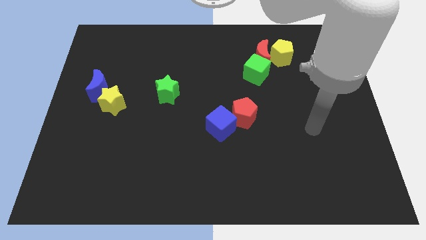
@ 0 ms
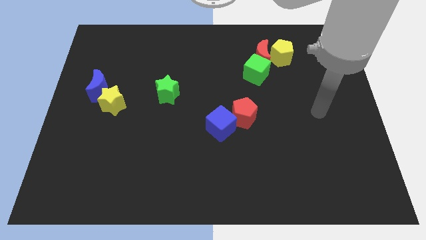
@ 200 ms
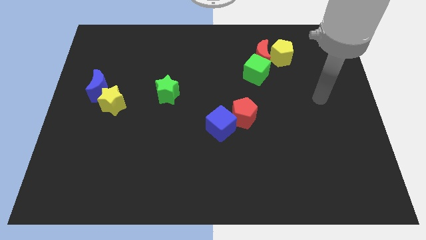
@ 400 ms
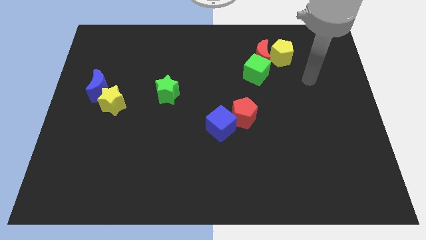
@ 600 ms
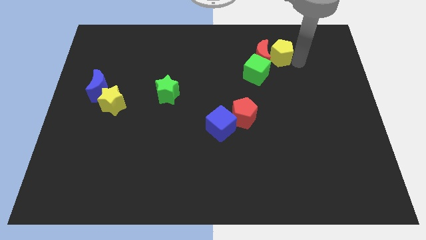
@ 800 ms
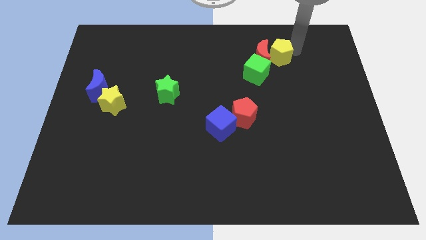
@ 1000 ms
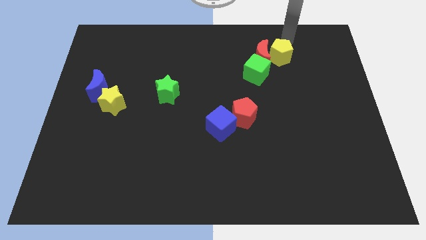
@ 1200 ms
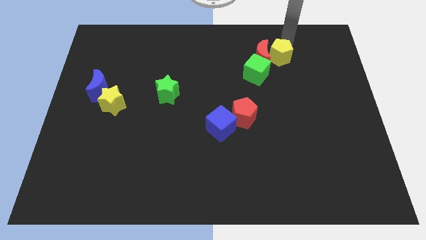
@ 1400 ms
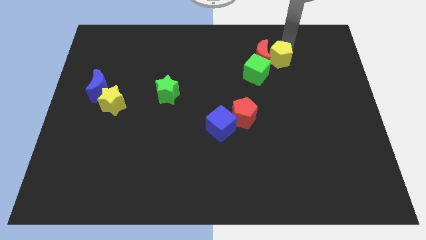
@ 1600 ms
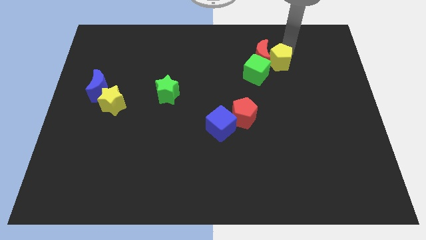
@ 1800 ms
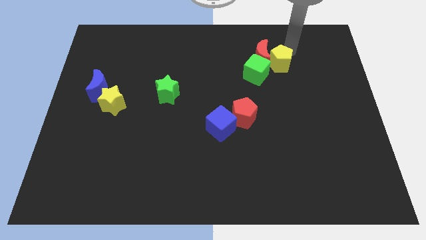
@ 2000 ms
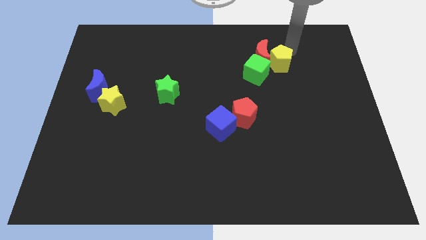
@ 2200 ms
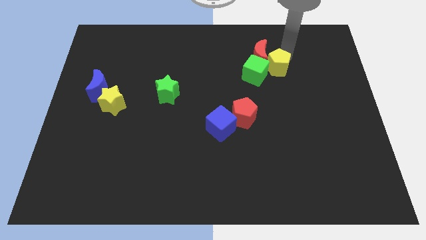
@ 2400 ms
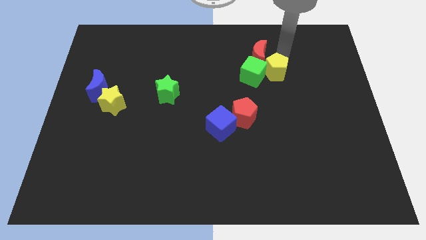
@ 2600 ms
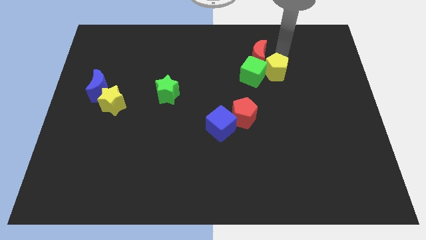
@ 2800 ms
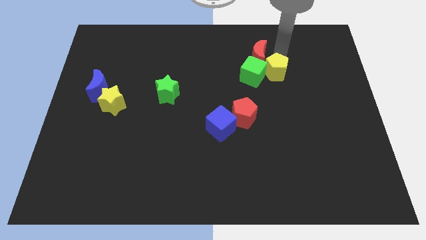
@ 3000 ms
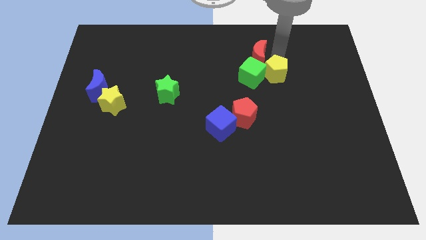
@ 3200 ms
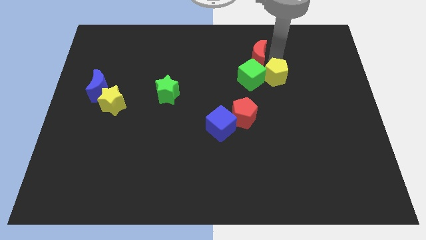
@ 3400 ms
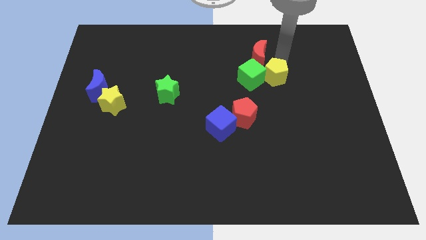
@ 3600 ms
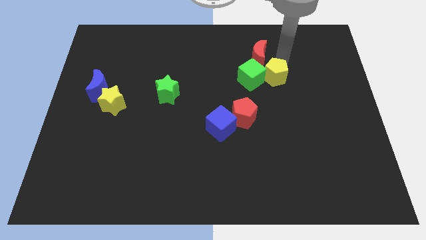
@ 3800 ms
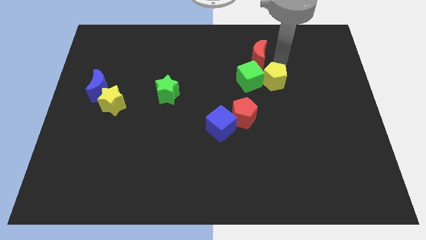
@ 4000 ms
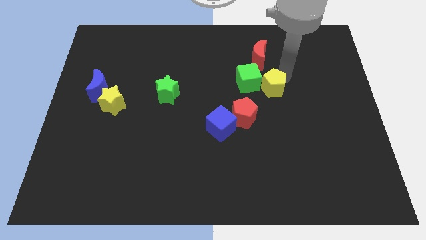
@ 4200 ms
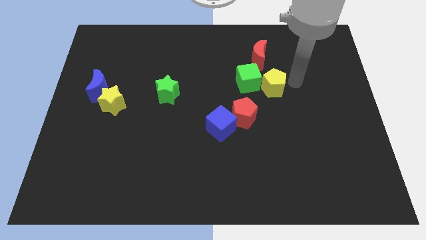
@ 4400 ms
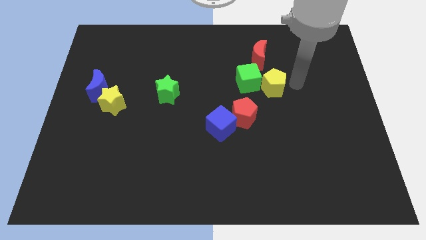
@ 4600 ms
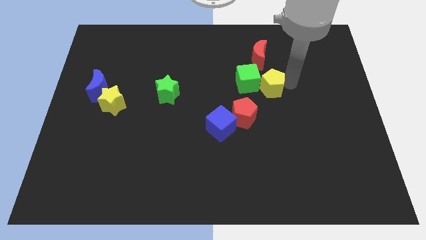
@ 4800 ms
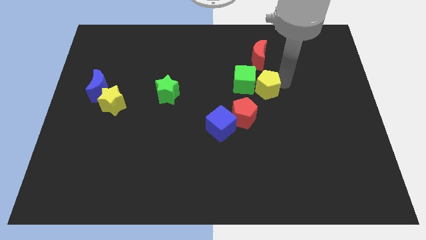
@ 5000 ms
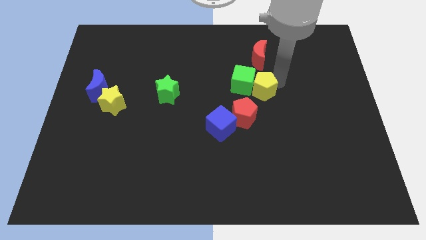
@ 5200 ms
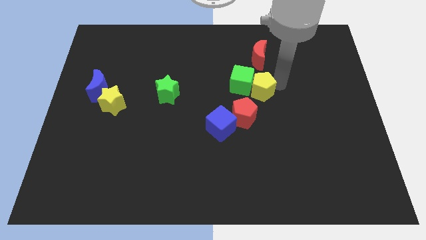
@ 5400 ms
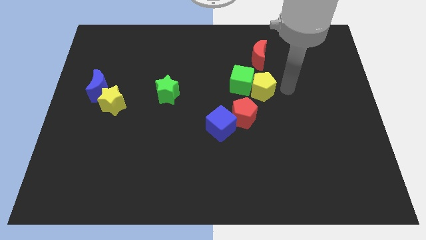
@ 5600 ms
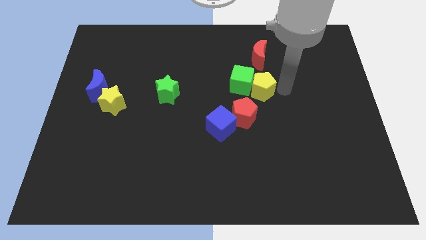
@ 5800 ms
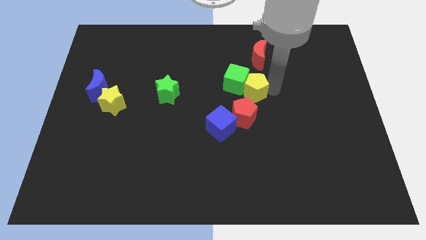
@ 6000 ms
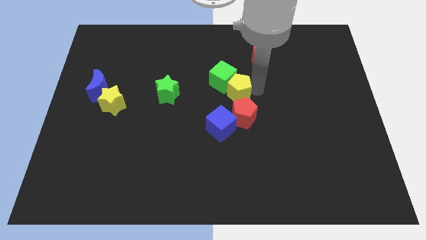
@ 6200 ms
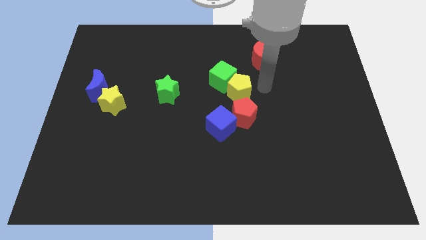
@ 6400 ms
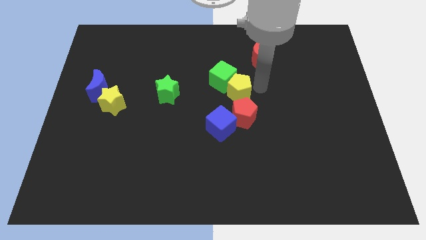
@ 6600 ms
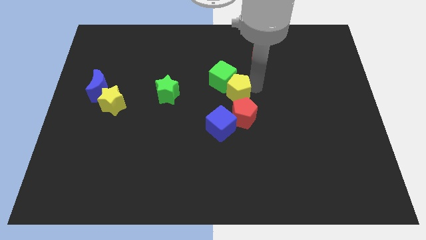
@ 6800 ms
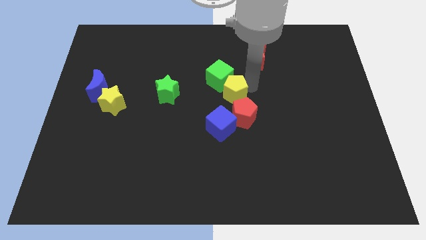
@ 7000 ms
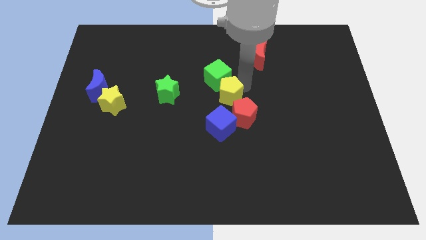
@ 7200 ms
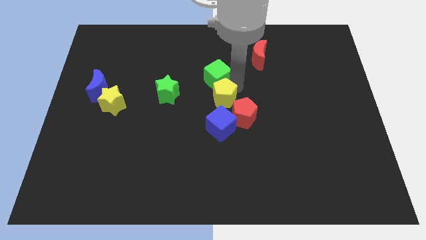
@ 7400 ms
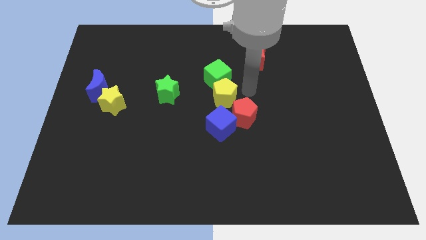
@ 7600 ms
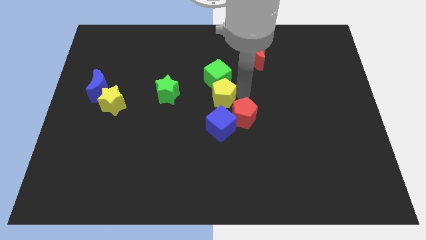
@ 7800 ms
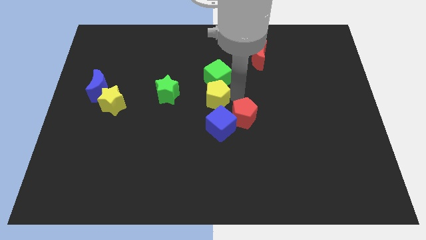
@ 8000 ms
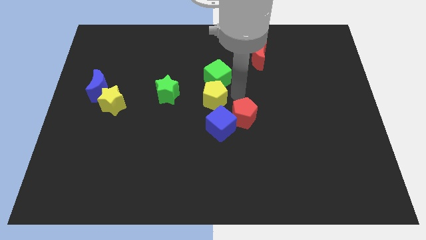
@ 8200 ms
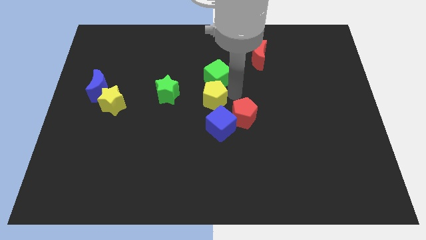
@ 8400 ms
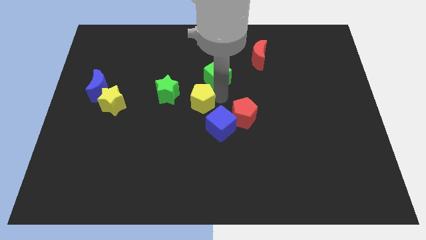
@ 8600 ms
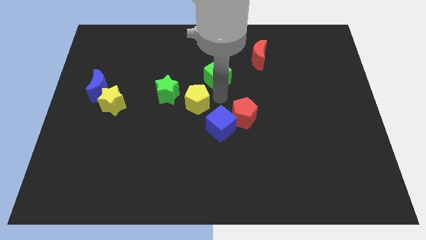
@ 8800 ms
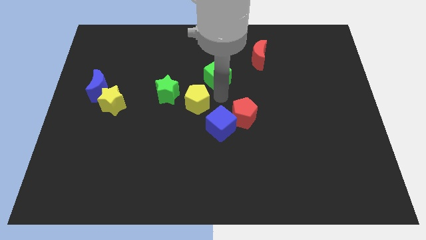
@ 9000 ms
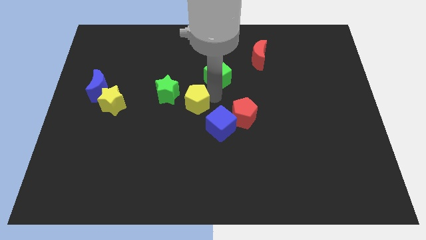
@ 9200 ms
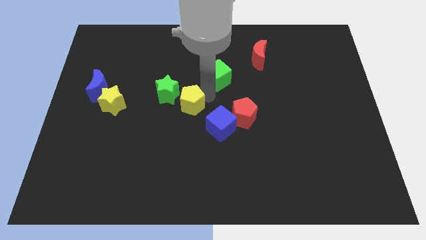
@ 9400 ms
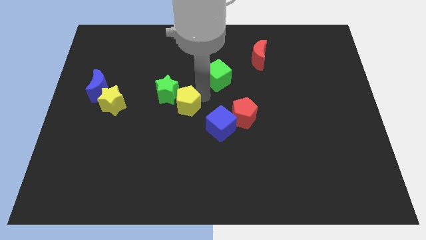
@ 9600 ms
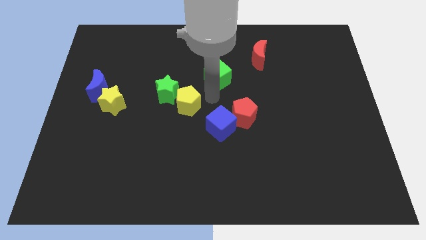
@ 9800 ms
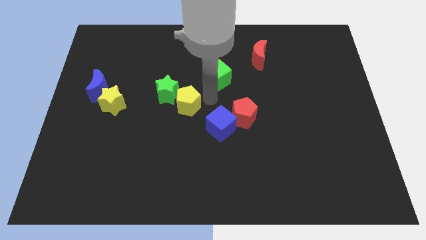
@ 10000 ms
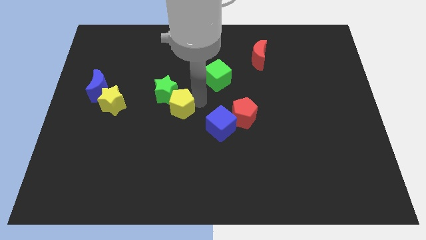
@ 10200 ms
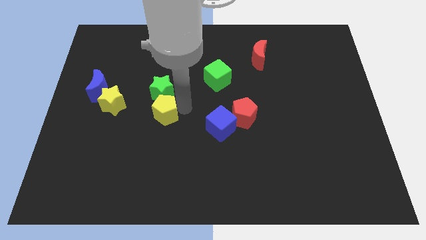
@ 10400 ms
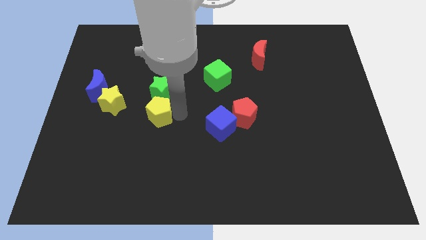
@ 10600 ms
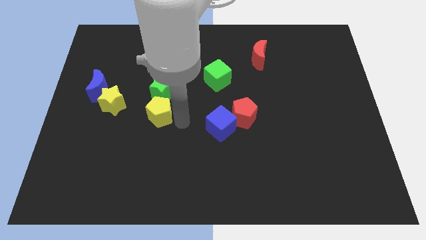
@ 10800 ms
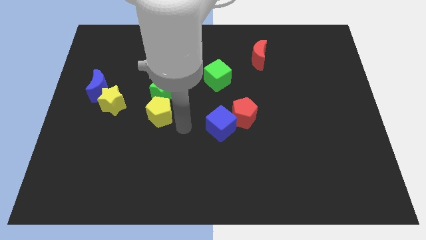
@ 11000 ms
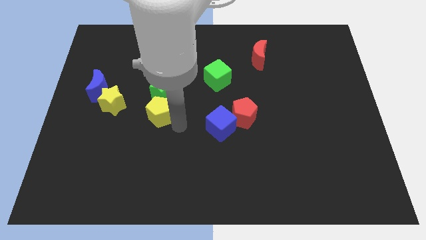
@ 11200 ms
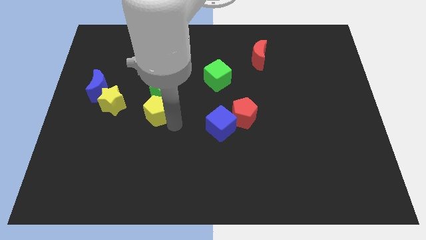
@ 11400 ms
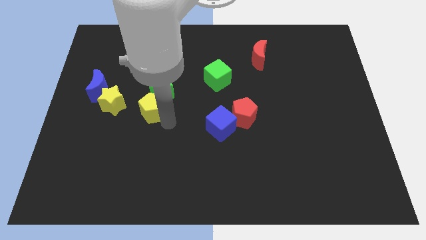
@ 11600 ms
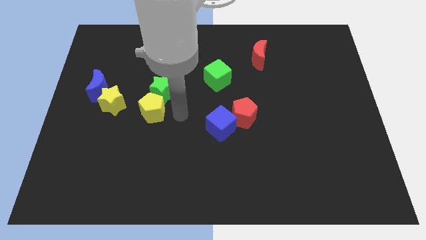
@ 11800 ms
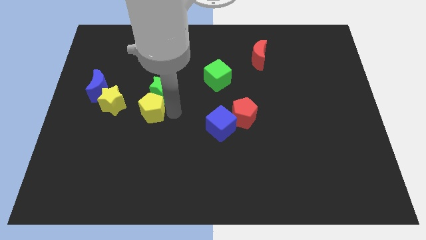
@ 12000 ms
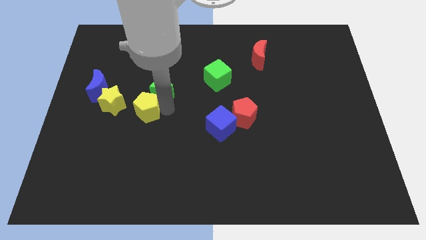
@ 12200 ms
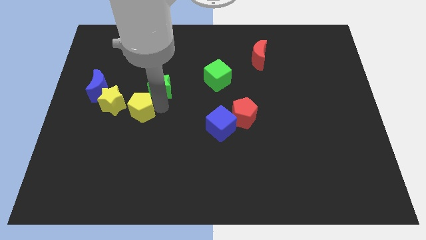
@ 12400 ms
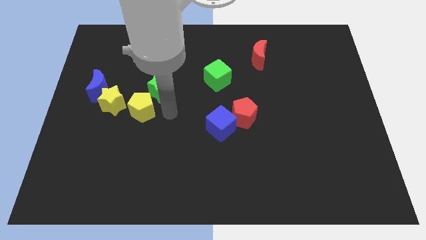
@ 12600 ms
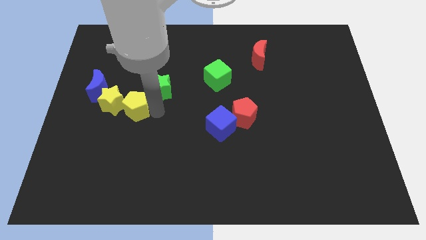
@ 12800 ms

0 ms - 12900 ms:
push the yellow pentagon to the bottom right of the blue moon

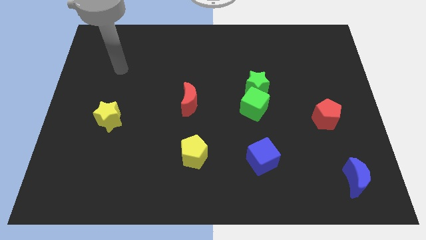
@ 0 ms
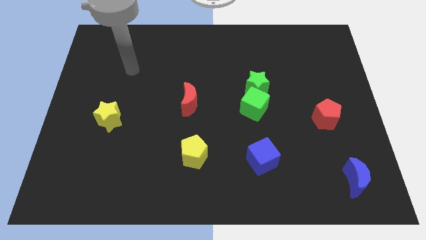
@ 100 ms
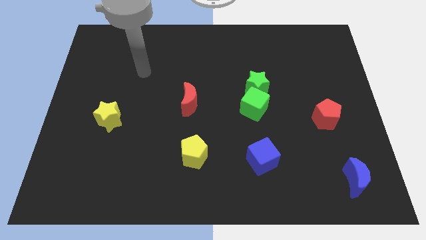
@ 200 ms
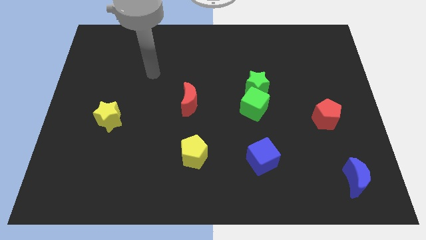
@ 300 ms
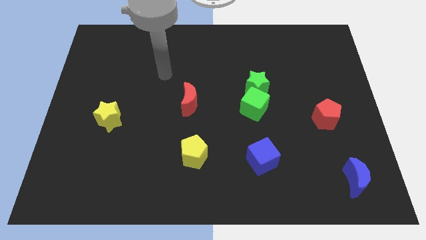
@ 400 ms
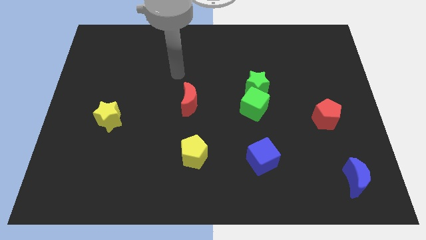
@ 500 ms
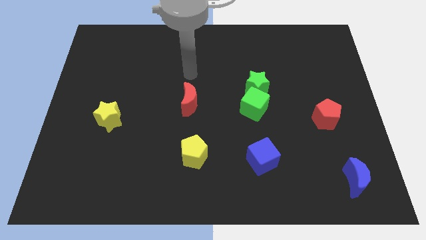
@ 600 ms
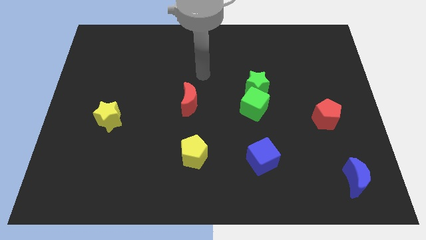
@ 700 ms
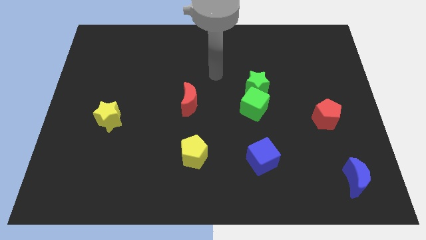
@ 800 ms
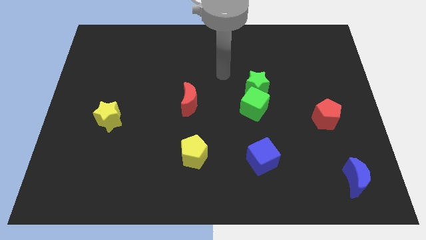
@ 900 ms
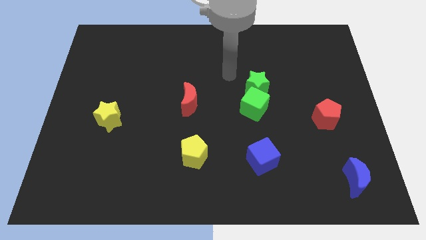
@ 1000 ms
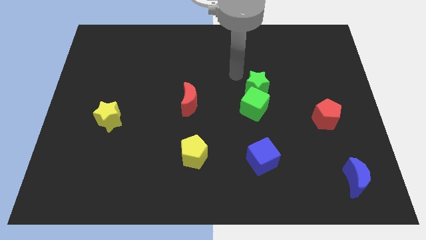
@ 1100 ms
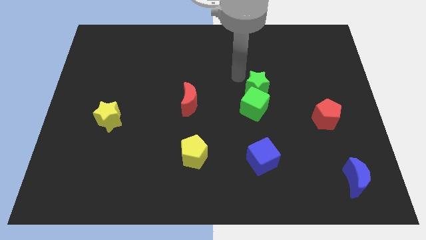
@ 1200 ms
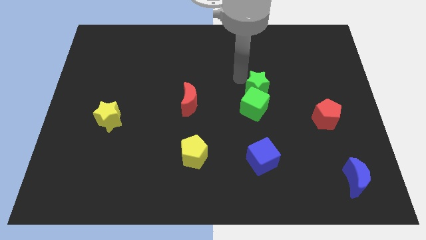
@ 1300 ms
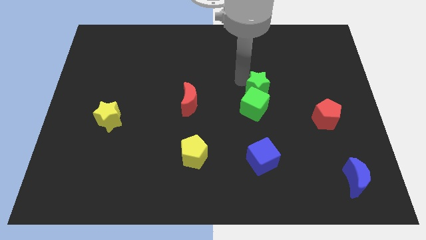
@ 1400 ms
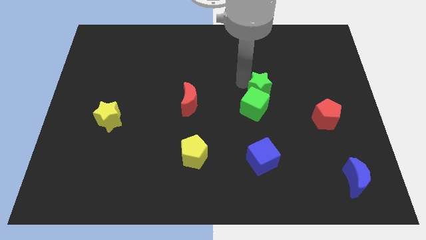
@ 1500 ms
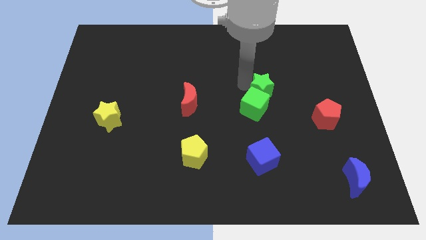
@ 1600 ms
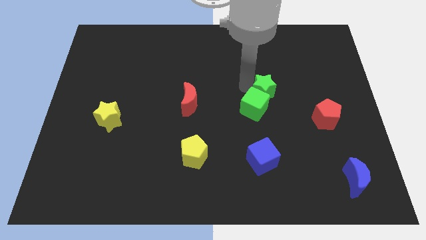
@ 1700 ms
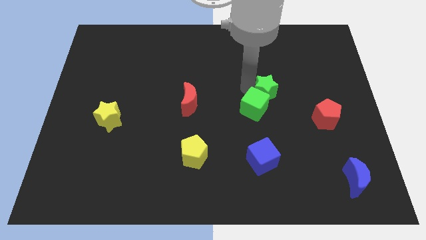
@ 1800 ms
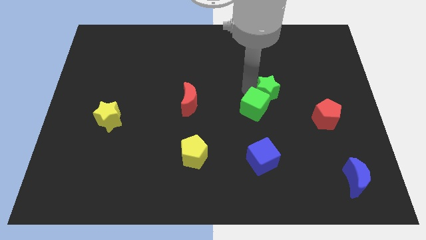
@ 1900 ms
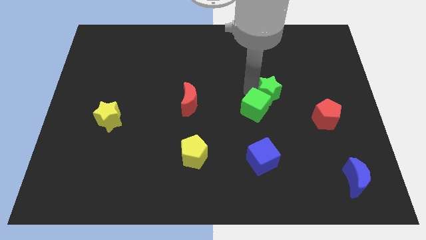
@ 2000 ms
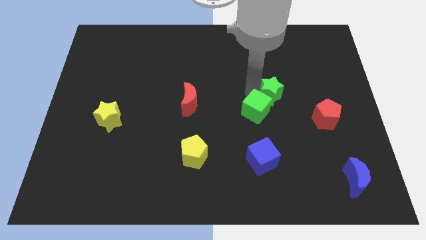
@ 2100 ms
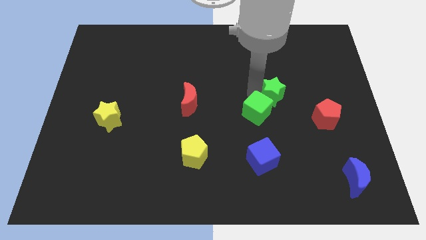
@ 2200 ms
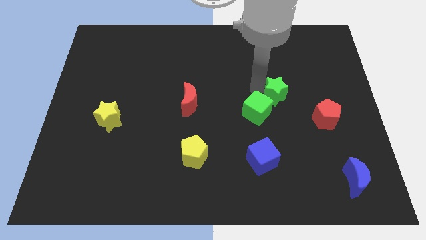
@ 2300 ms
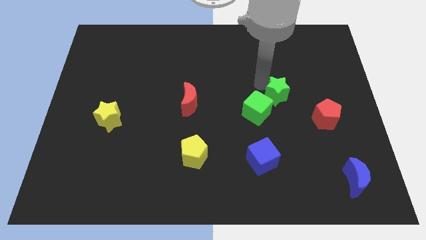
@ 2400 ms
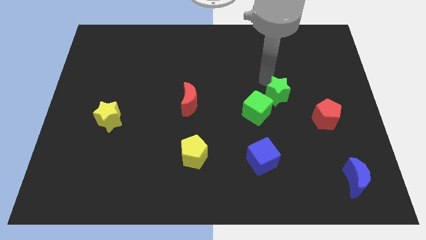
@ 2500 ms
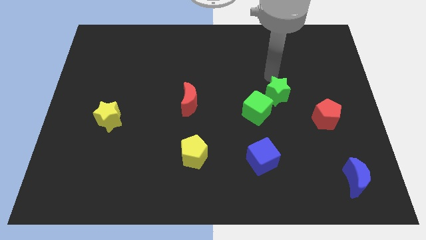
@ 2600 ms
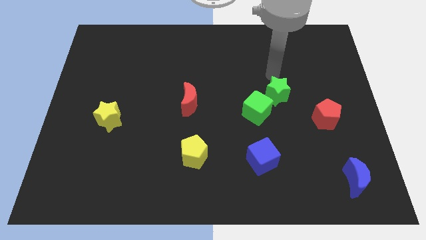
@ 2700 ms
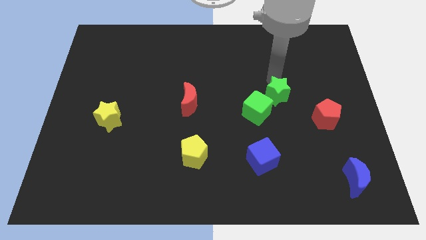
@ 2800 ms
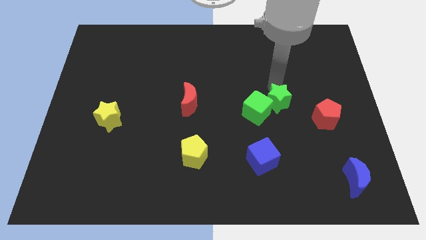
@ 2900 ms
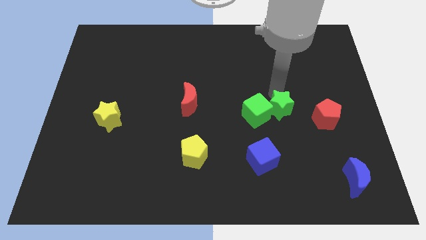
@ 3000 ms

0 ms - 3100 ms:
push the green star diagonally down and to the right of the green cube
